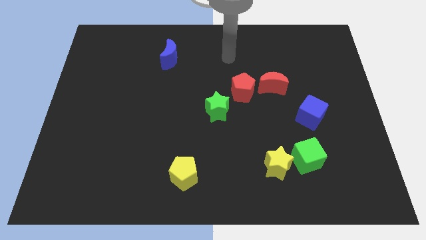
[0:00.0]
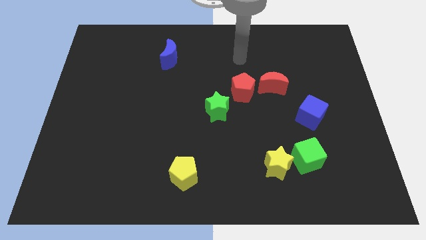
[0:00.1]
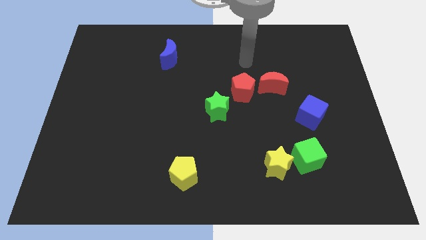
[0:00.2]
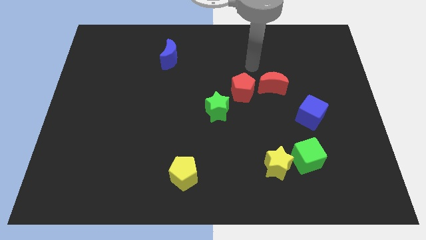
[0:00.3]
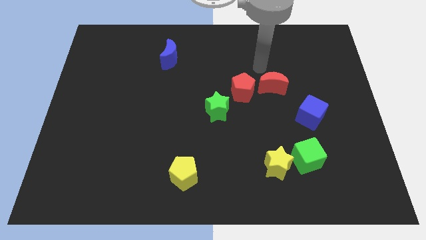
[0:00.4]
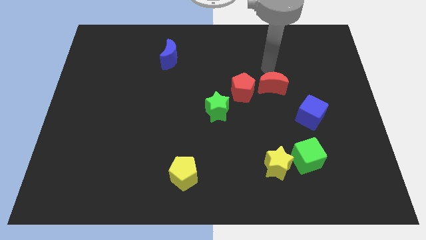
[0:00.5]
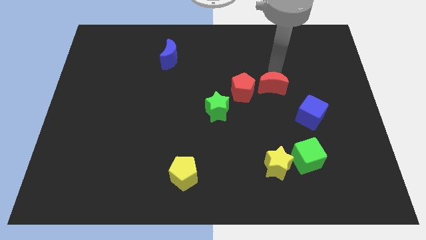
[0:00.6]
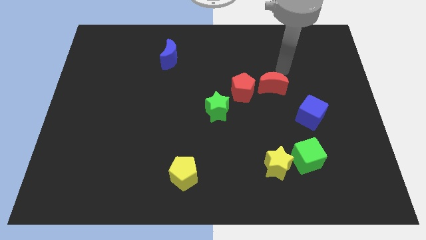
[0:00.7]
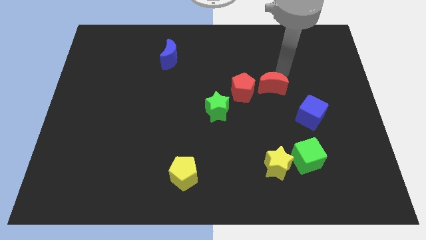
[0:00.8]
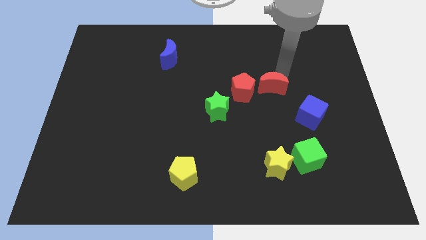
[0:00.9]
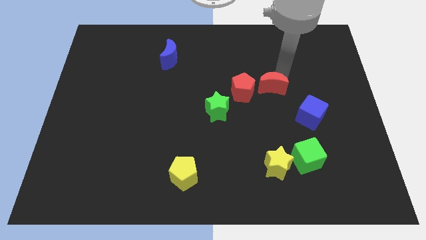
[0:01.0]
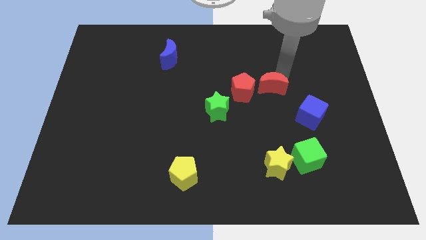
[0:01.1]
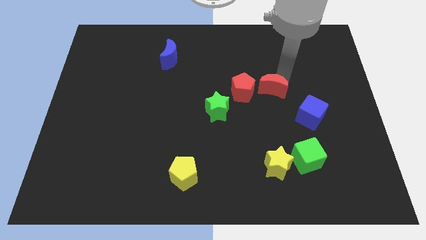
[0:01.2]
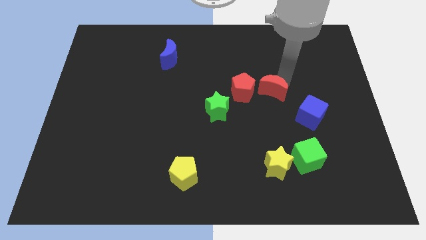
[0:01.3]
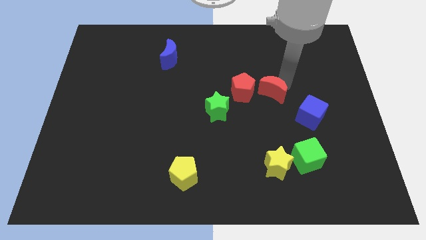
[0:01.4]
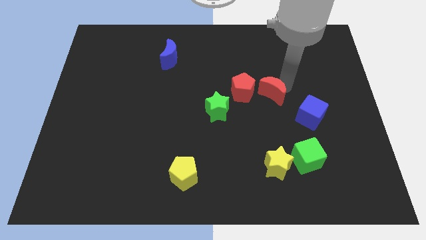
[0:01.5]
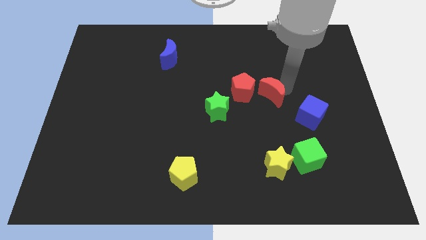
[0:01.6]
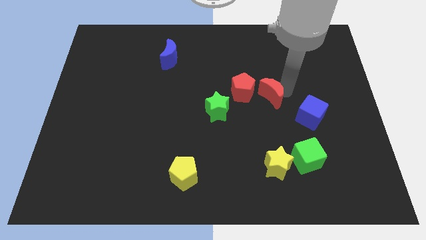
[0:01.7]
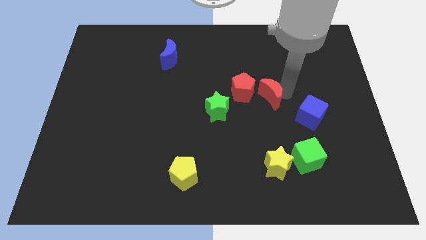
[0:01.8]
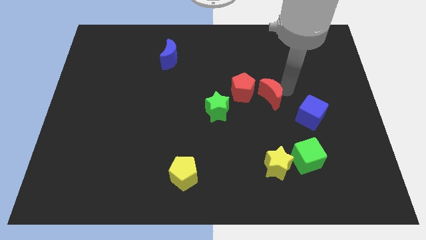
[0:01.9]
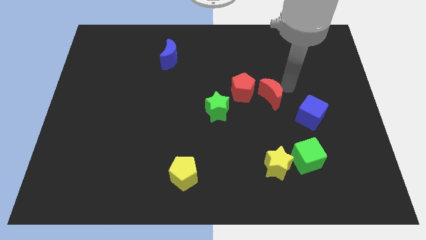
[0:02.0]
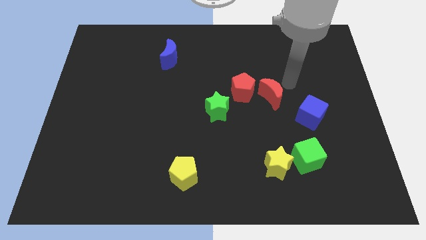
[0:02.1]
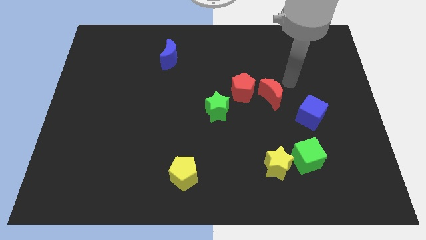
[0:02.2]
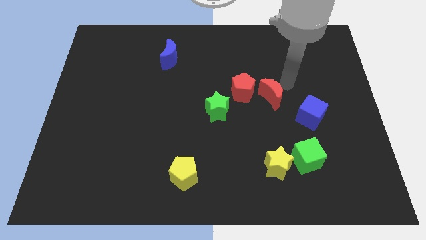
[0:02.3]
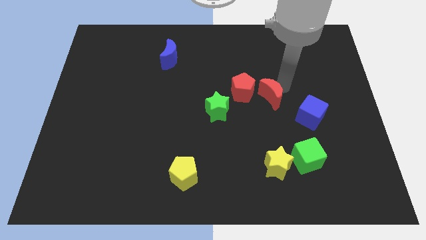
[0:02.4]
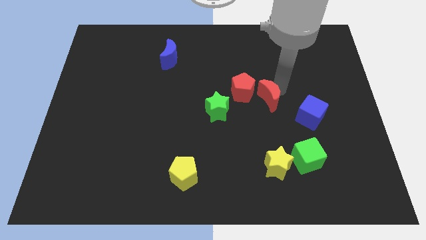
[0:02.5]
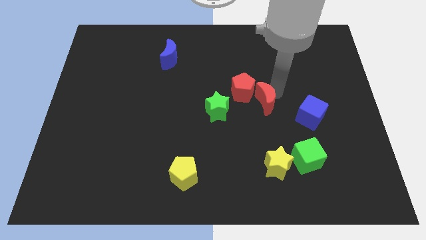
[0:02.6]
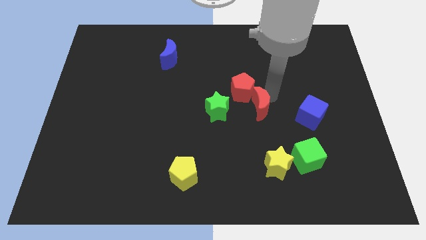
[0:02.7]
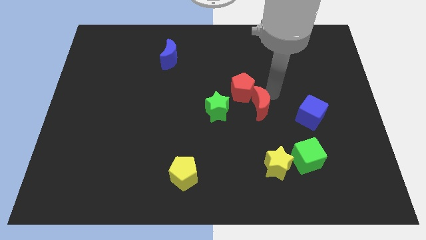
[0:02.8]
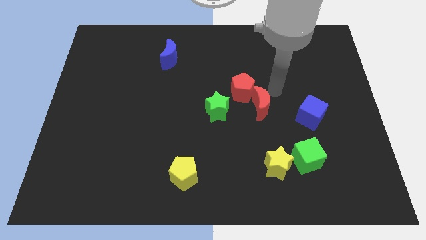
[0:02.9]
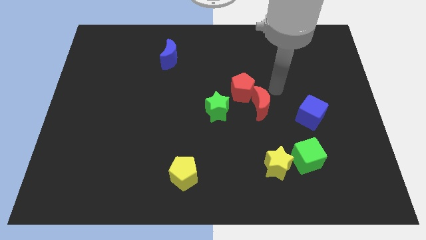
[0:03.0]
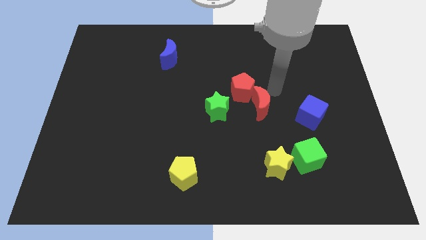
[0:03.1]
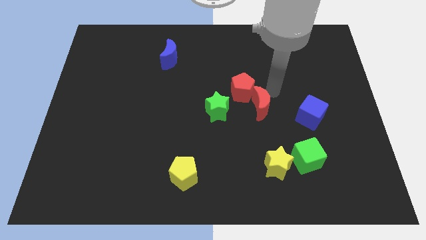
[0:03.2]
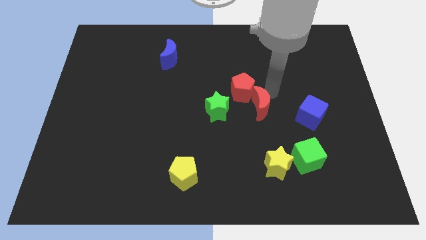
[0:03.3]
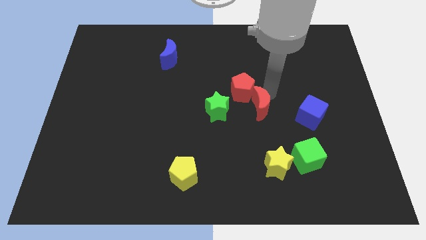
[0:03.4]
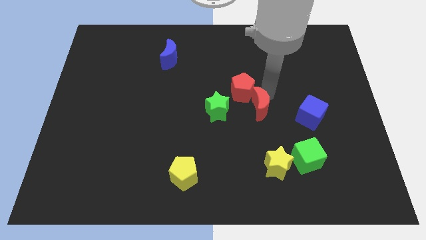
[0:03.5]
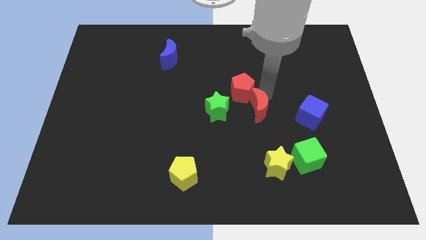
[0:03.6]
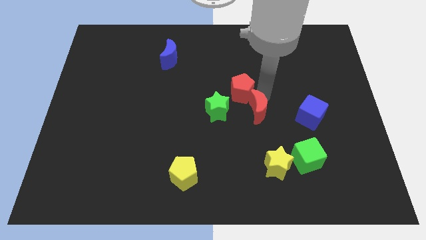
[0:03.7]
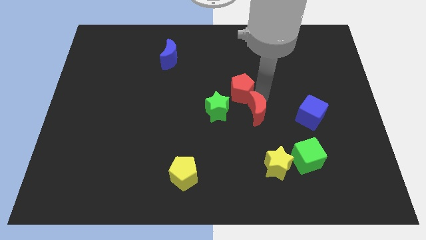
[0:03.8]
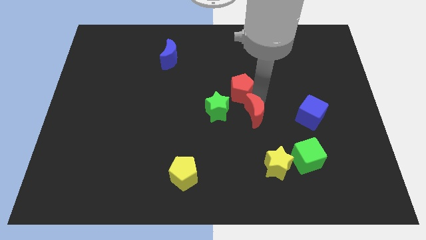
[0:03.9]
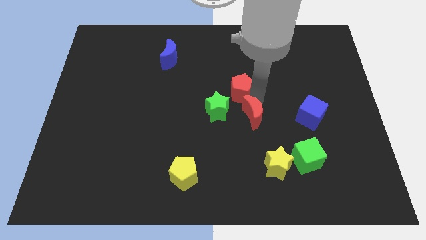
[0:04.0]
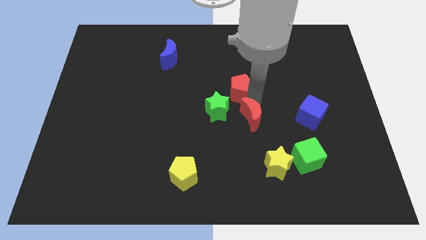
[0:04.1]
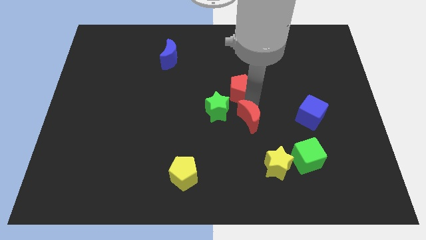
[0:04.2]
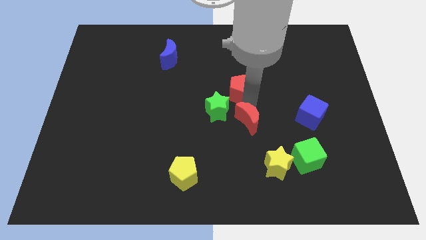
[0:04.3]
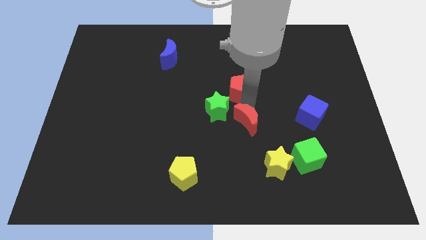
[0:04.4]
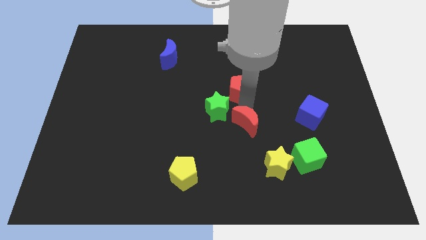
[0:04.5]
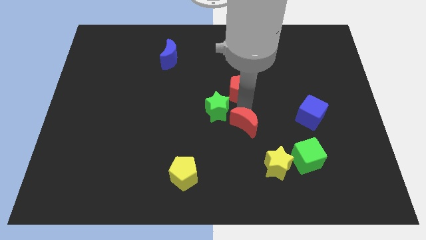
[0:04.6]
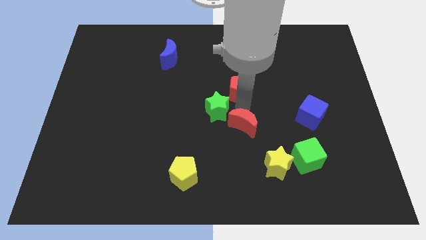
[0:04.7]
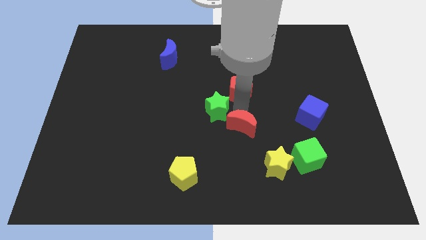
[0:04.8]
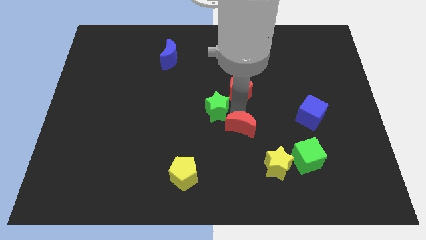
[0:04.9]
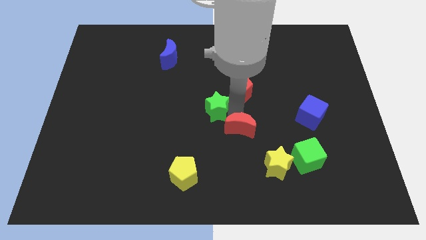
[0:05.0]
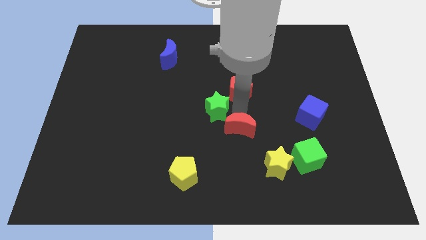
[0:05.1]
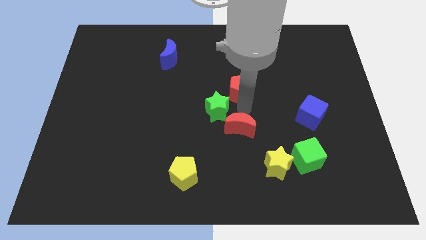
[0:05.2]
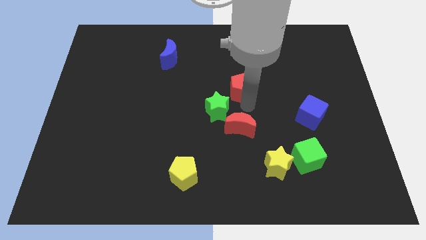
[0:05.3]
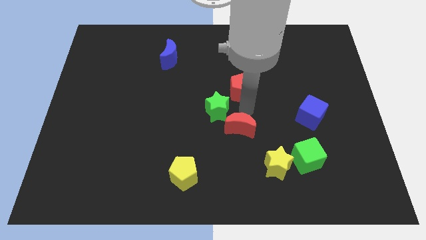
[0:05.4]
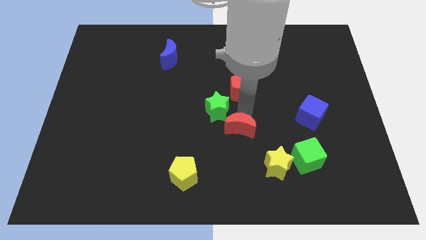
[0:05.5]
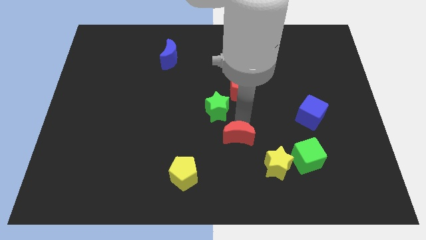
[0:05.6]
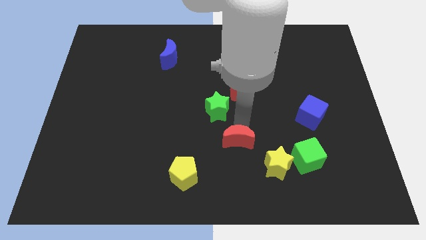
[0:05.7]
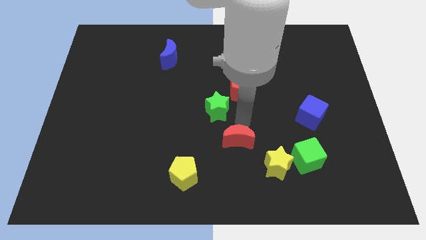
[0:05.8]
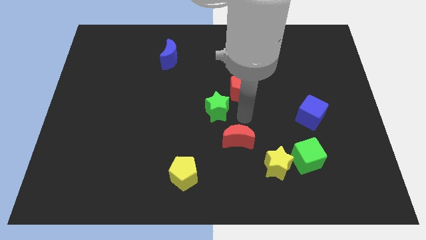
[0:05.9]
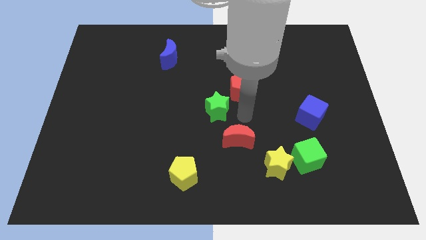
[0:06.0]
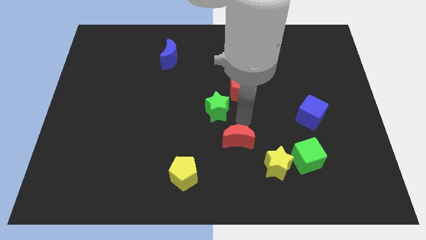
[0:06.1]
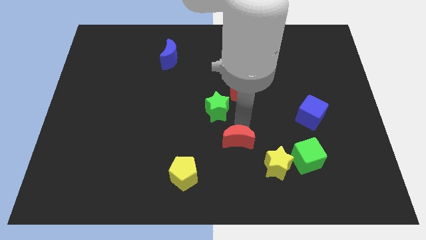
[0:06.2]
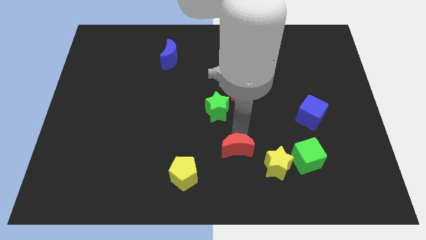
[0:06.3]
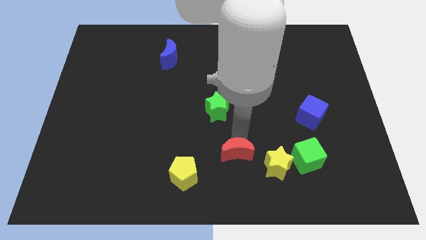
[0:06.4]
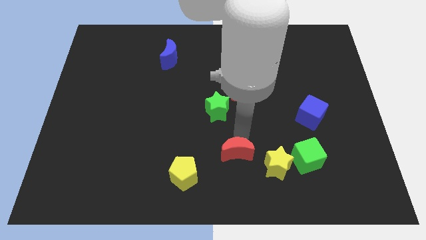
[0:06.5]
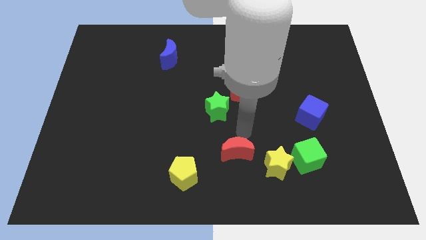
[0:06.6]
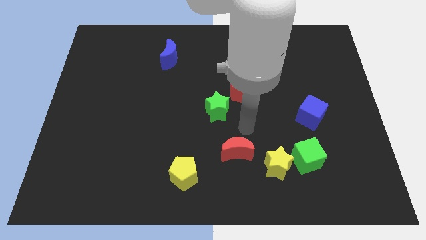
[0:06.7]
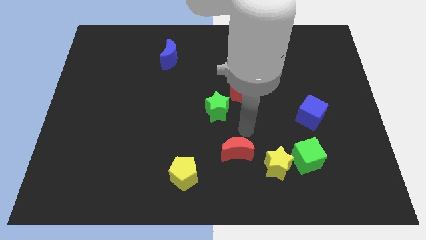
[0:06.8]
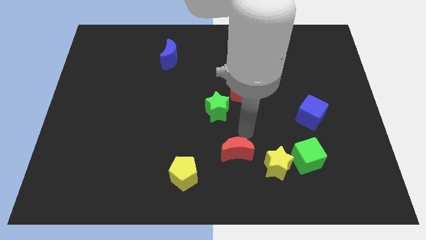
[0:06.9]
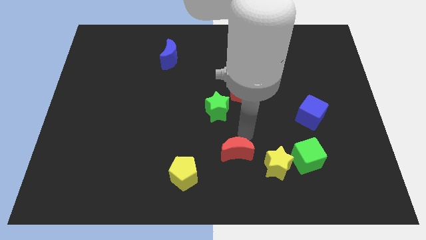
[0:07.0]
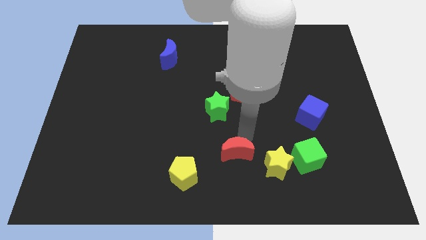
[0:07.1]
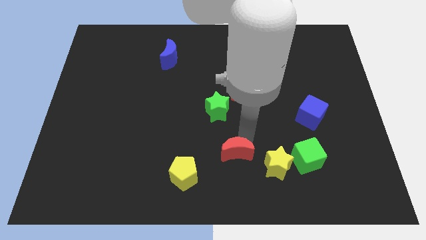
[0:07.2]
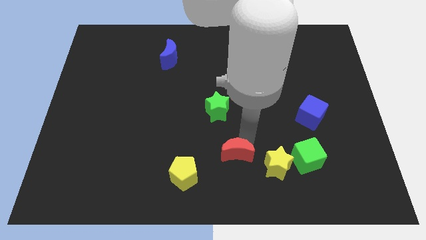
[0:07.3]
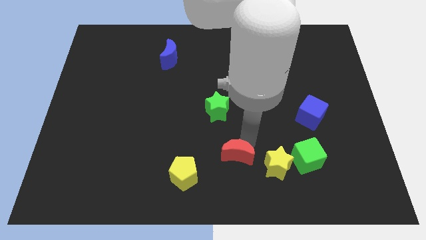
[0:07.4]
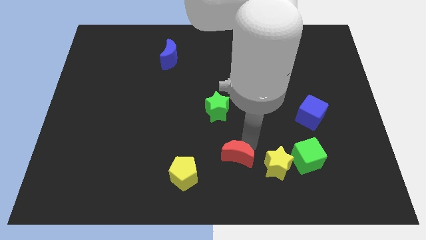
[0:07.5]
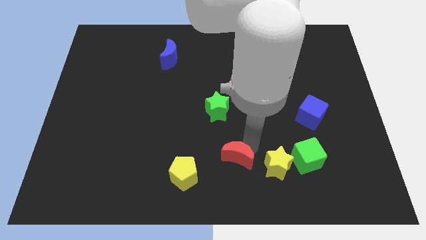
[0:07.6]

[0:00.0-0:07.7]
slide the red moon to the bottom
